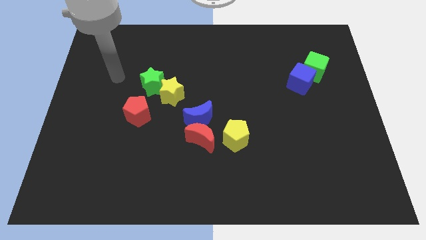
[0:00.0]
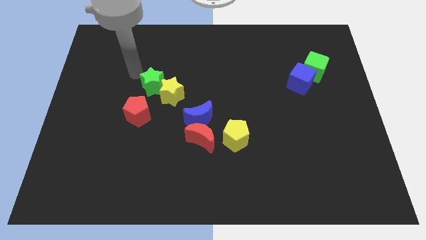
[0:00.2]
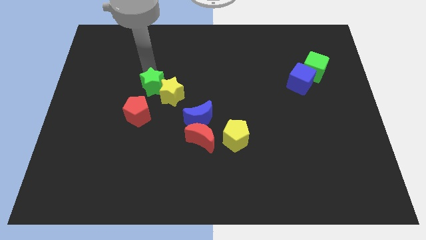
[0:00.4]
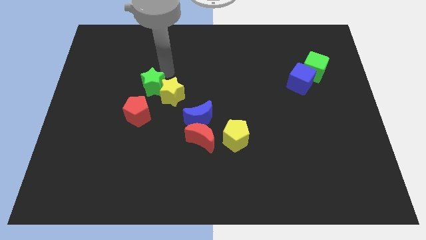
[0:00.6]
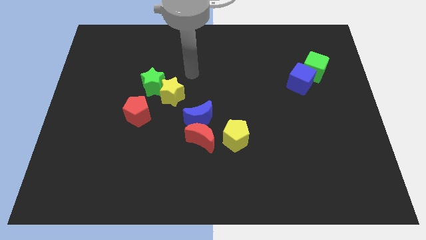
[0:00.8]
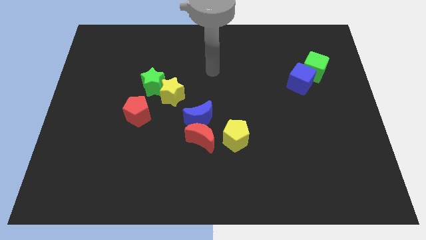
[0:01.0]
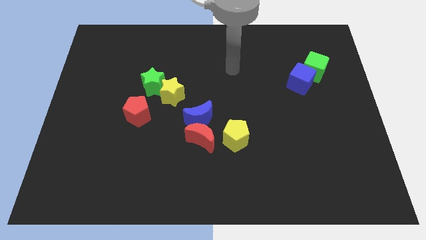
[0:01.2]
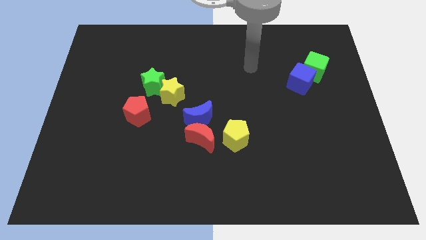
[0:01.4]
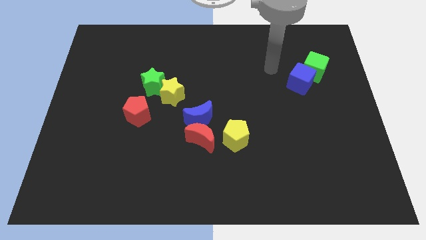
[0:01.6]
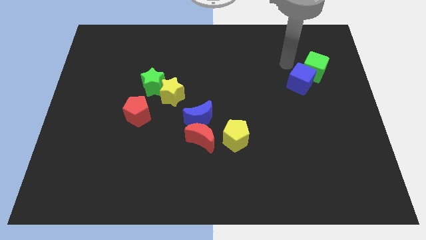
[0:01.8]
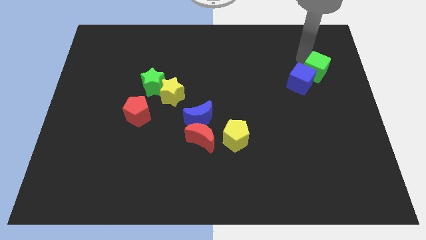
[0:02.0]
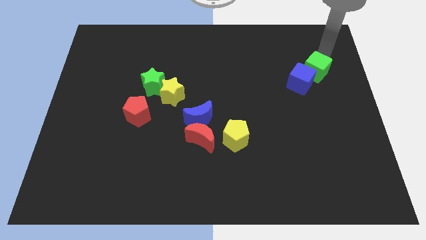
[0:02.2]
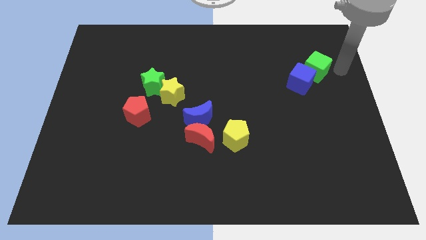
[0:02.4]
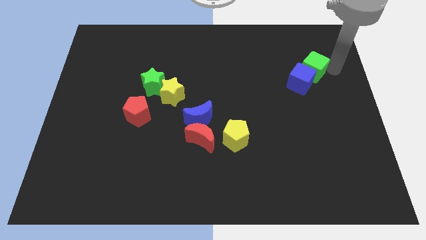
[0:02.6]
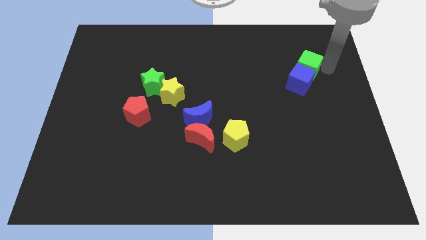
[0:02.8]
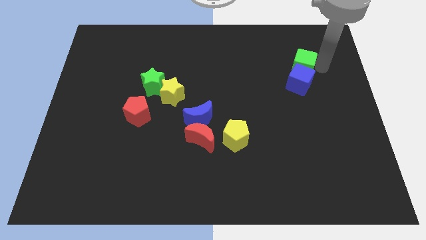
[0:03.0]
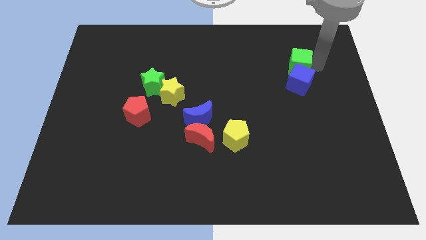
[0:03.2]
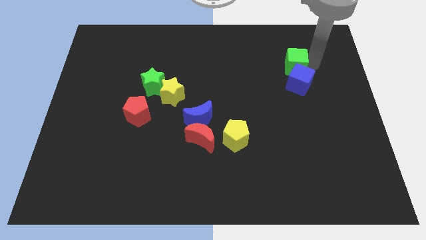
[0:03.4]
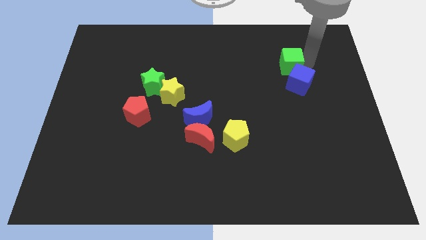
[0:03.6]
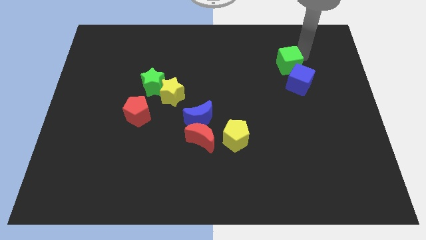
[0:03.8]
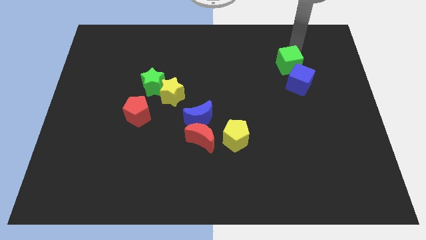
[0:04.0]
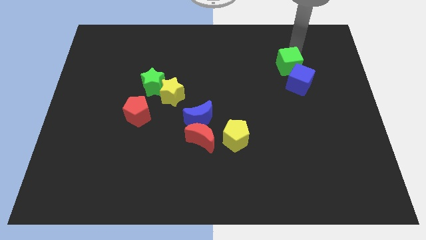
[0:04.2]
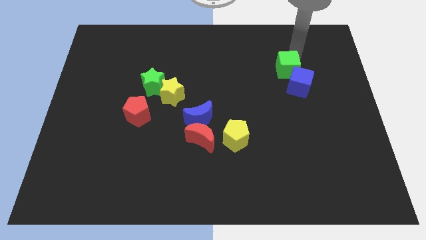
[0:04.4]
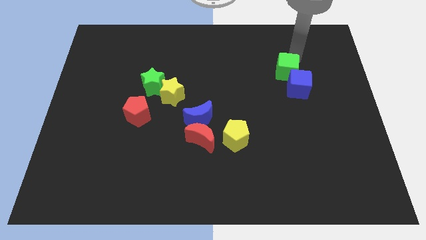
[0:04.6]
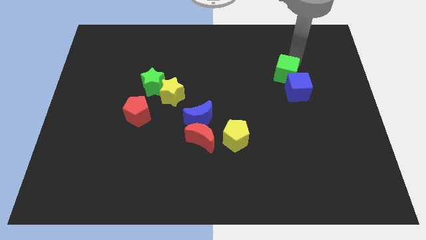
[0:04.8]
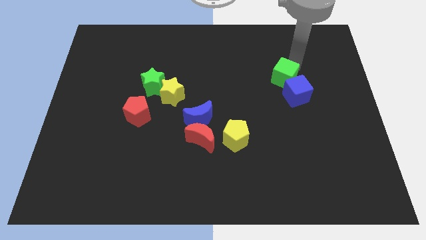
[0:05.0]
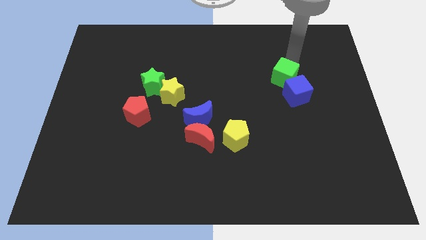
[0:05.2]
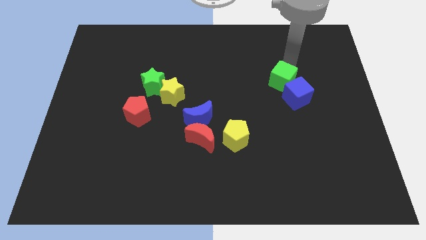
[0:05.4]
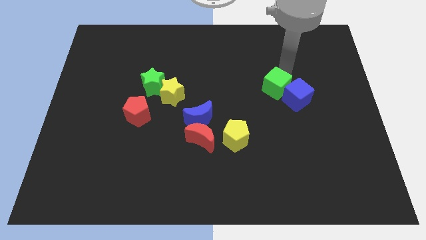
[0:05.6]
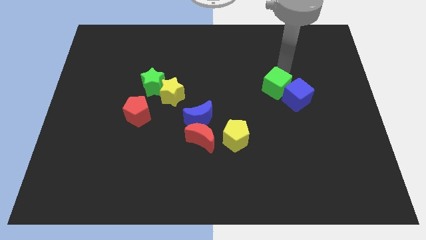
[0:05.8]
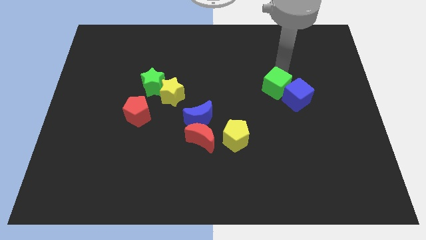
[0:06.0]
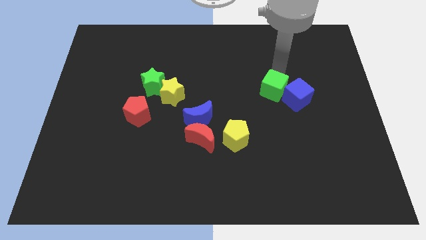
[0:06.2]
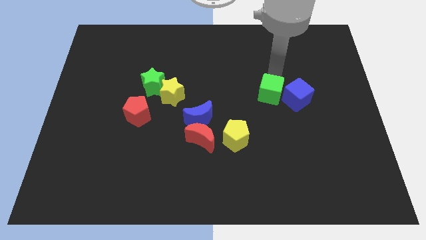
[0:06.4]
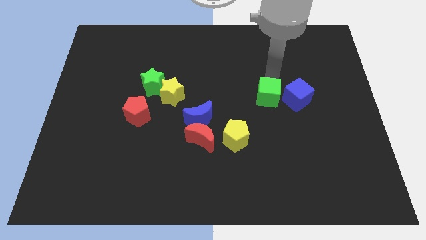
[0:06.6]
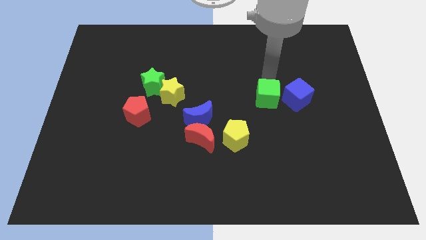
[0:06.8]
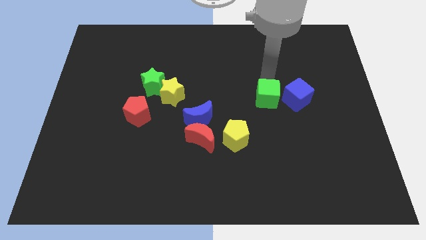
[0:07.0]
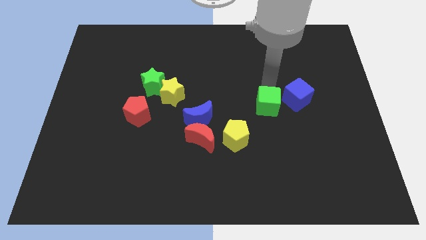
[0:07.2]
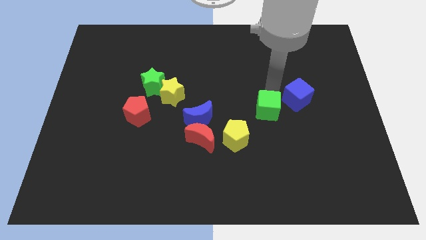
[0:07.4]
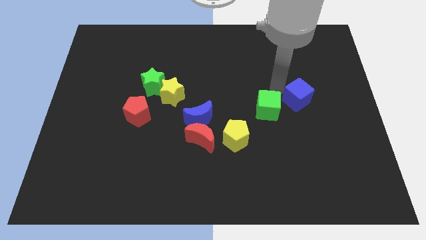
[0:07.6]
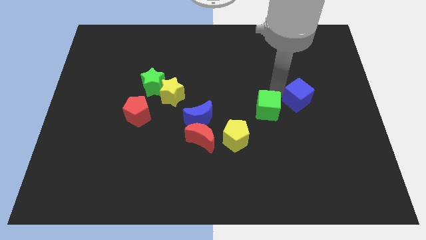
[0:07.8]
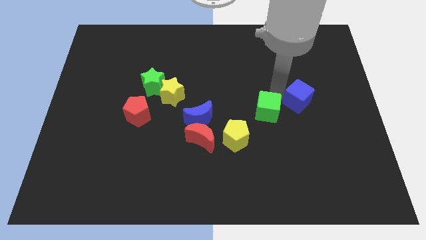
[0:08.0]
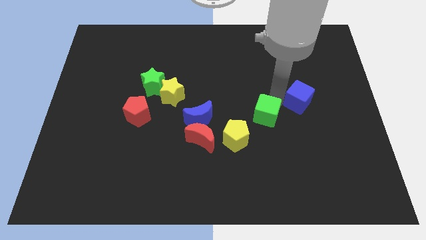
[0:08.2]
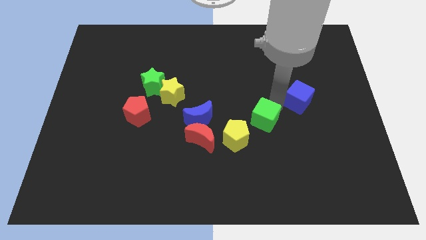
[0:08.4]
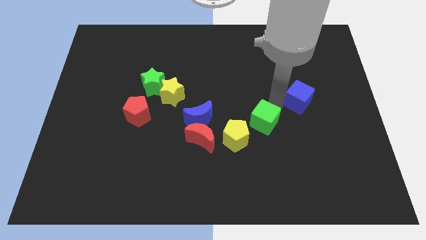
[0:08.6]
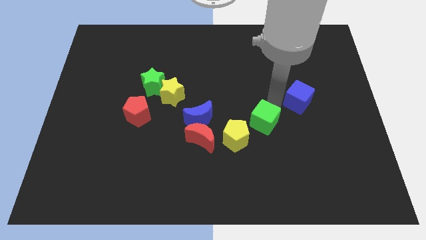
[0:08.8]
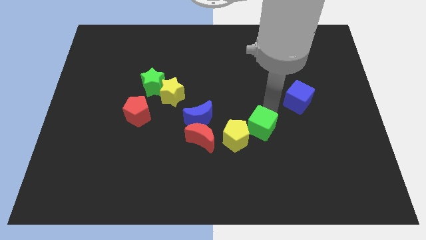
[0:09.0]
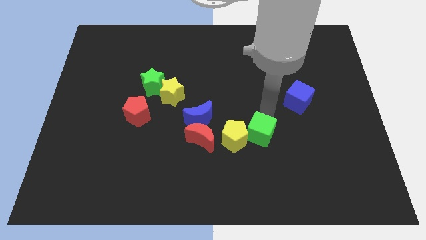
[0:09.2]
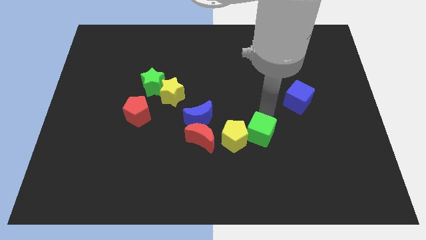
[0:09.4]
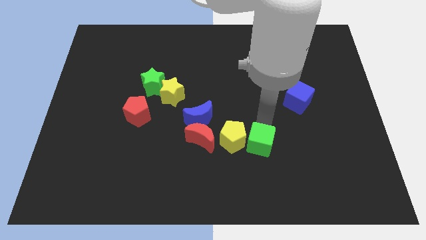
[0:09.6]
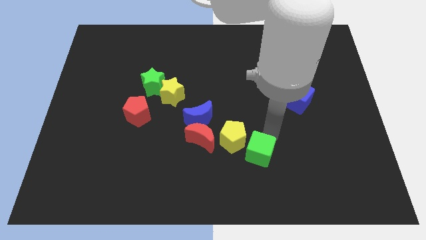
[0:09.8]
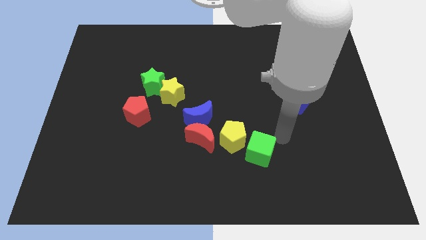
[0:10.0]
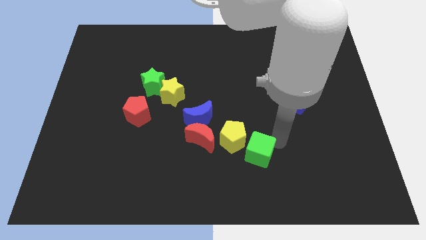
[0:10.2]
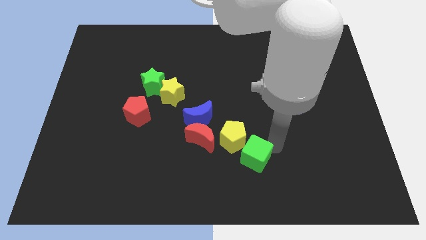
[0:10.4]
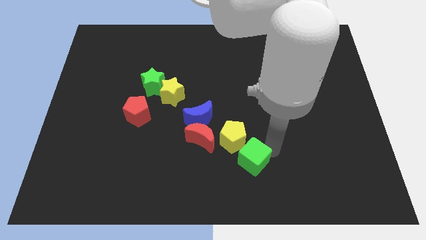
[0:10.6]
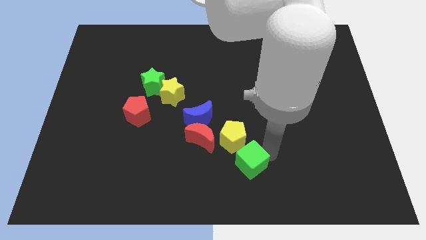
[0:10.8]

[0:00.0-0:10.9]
move the green cube to the bottom

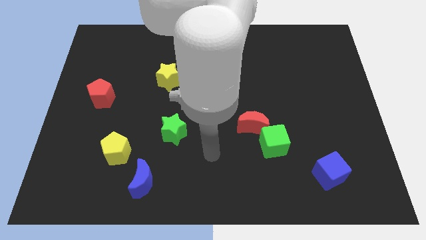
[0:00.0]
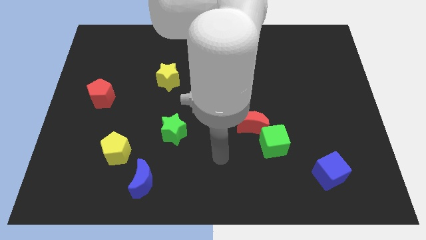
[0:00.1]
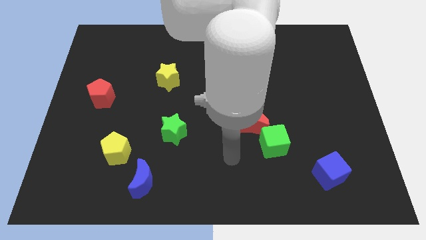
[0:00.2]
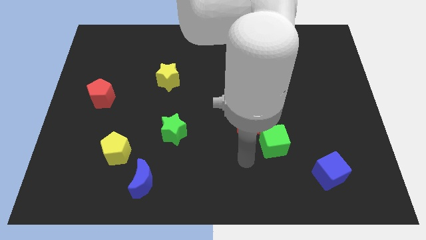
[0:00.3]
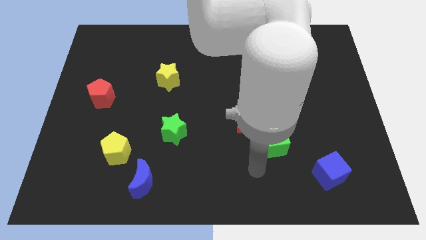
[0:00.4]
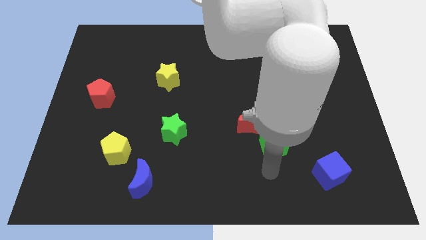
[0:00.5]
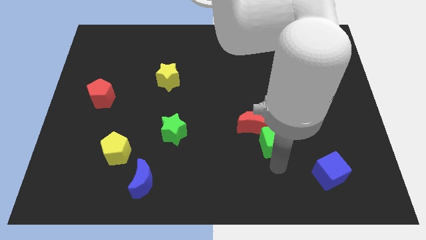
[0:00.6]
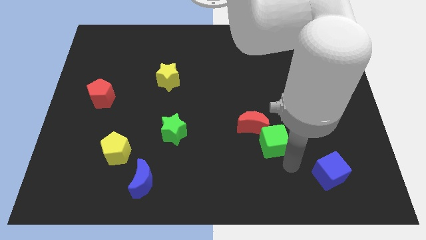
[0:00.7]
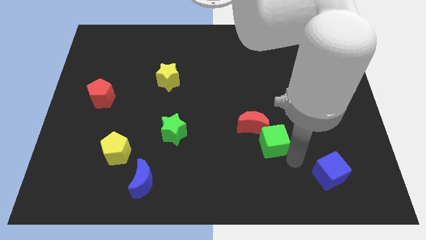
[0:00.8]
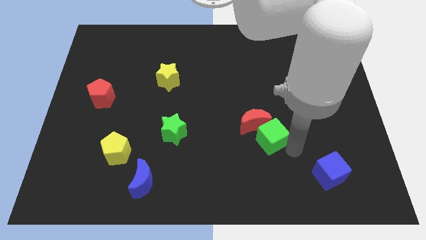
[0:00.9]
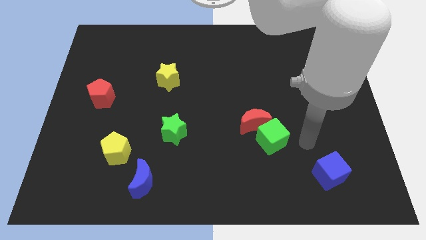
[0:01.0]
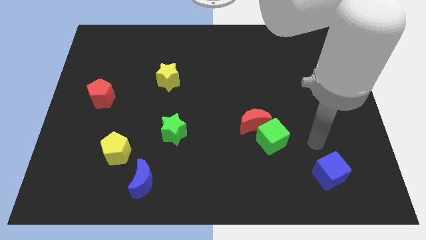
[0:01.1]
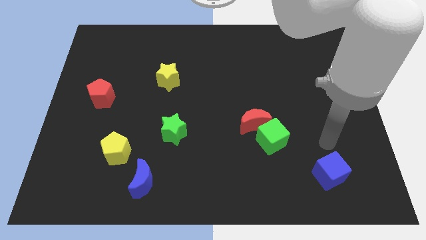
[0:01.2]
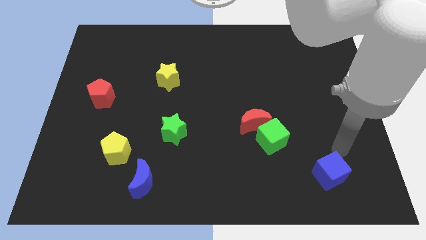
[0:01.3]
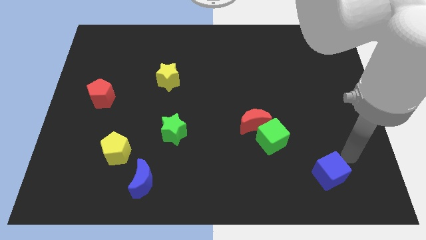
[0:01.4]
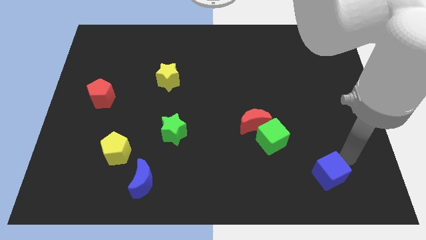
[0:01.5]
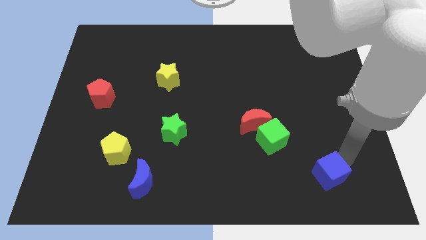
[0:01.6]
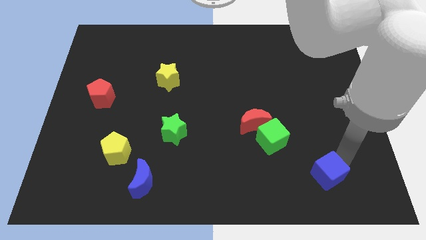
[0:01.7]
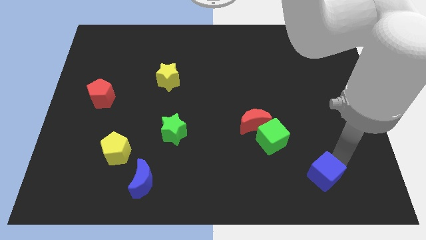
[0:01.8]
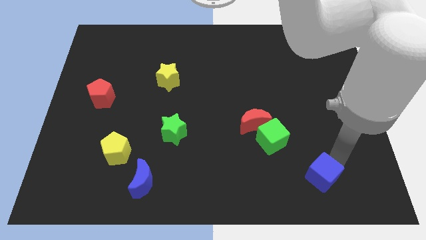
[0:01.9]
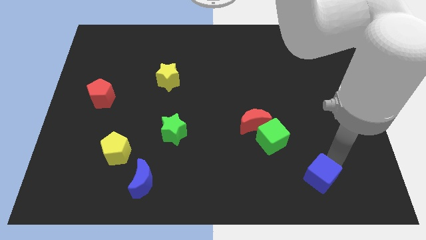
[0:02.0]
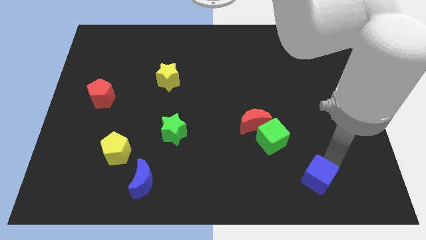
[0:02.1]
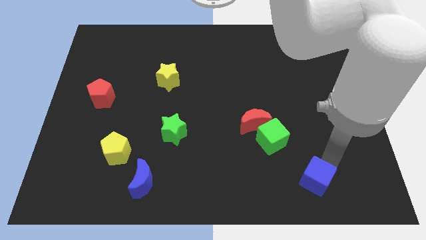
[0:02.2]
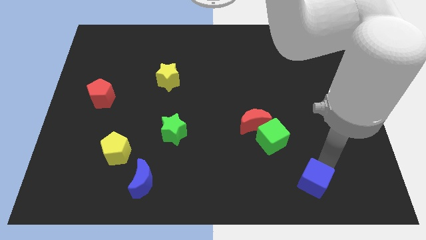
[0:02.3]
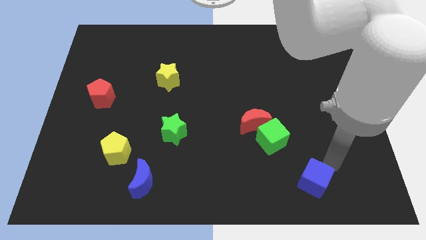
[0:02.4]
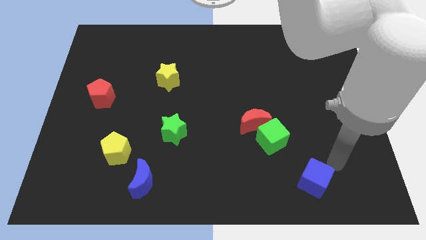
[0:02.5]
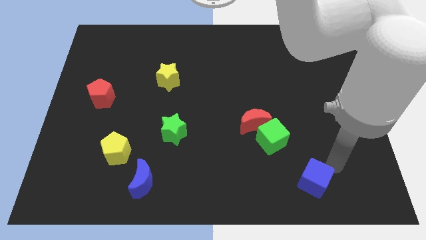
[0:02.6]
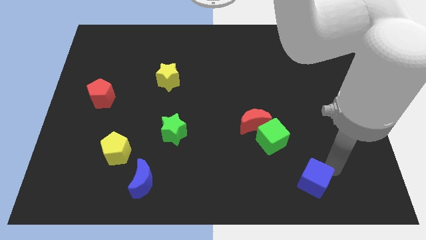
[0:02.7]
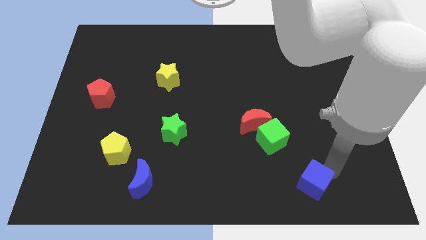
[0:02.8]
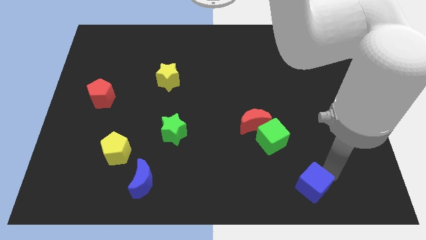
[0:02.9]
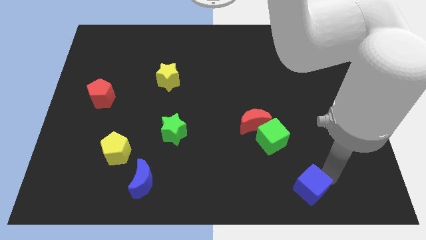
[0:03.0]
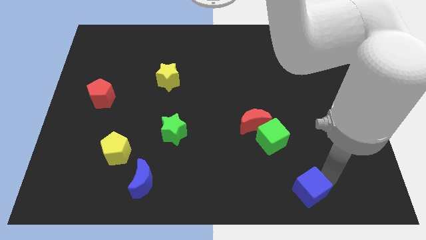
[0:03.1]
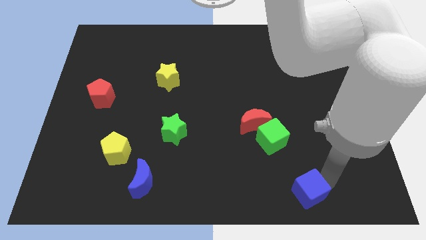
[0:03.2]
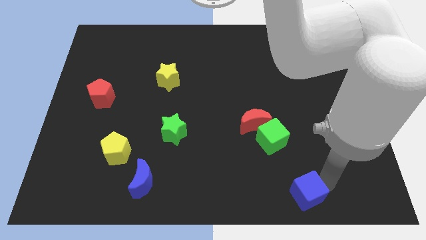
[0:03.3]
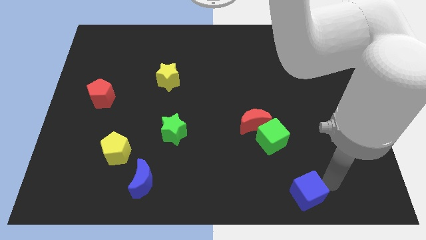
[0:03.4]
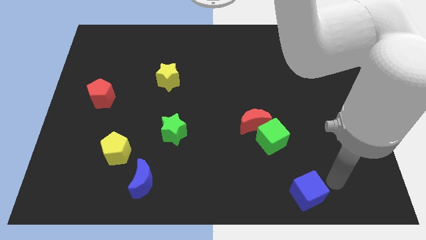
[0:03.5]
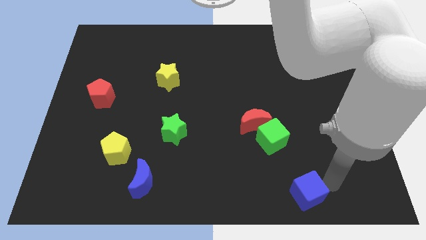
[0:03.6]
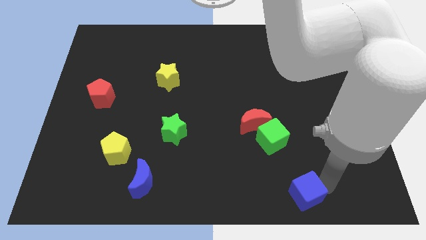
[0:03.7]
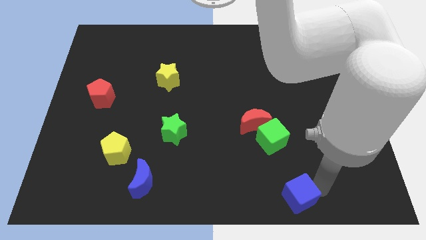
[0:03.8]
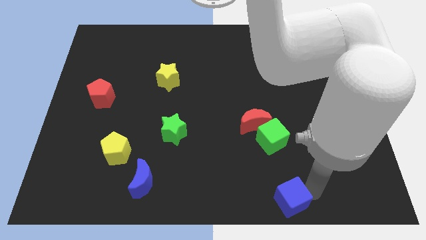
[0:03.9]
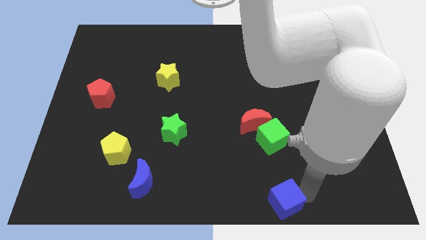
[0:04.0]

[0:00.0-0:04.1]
move the blue cube to the bottom
